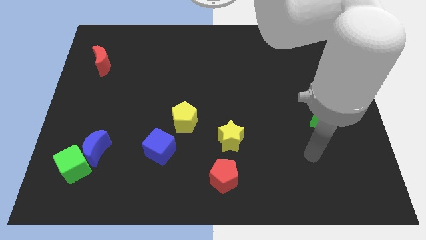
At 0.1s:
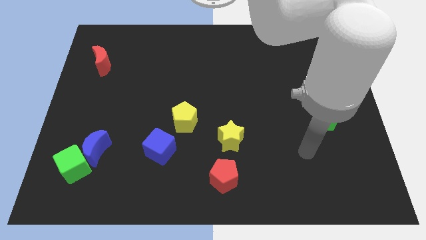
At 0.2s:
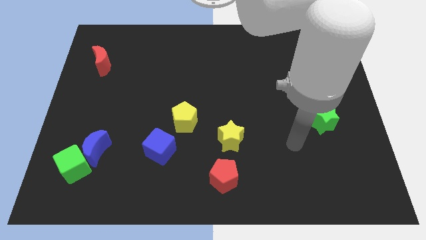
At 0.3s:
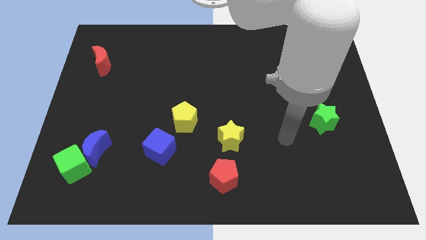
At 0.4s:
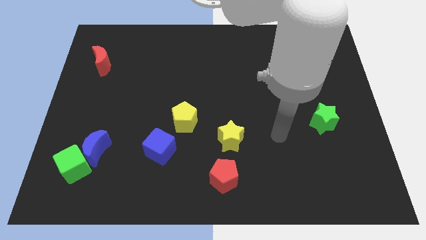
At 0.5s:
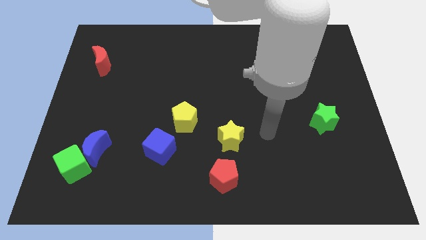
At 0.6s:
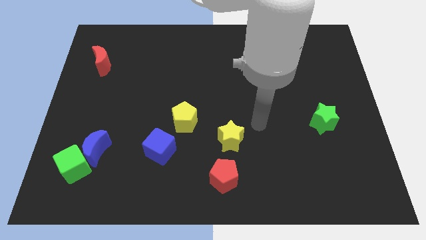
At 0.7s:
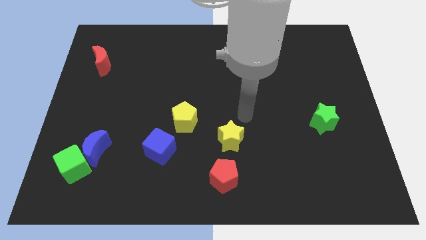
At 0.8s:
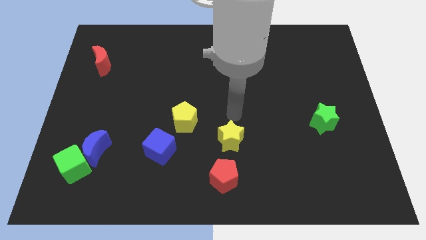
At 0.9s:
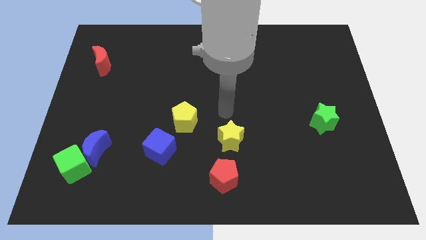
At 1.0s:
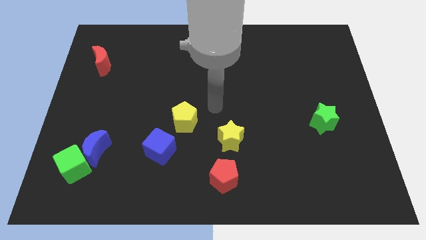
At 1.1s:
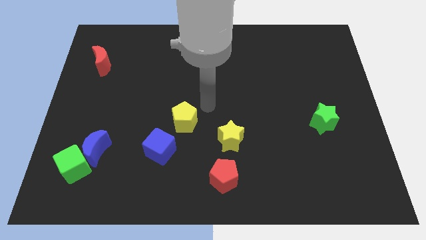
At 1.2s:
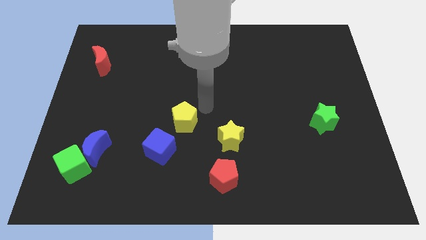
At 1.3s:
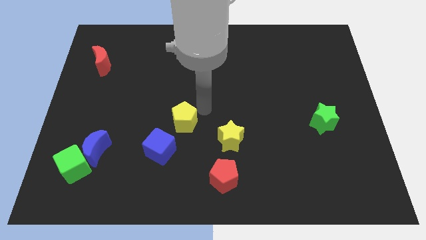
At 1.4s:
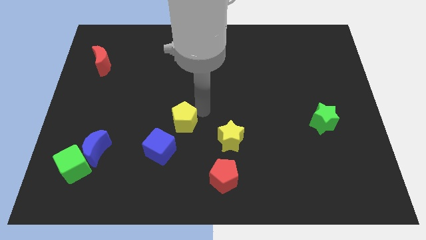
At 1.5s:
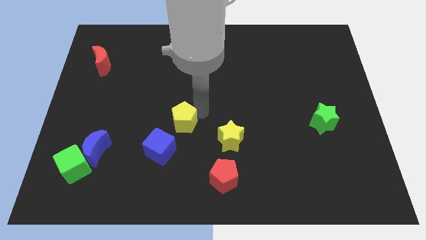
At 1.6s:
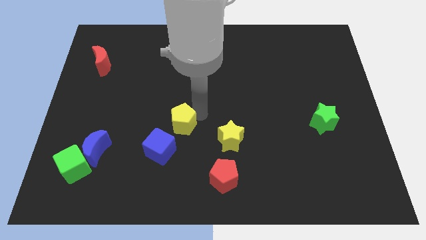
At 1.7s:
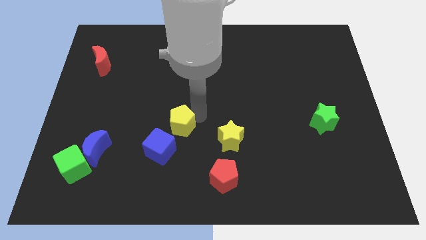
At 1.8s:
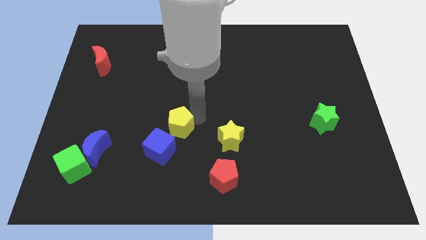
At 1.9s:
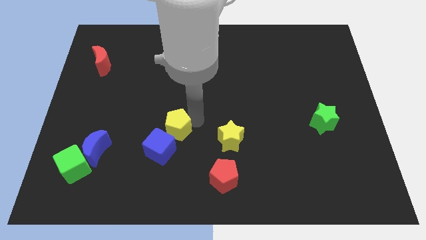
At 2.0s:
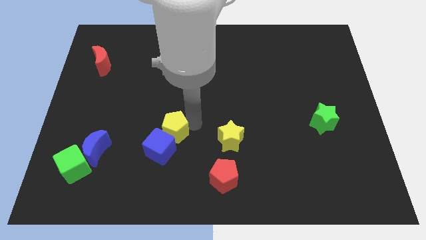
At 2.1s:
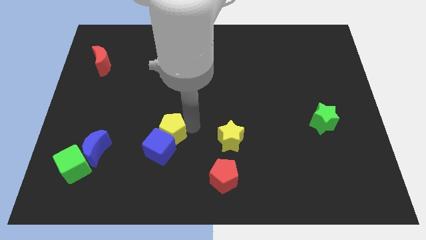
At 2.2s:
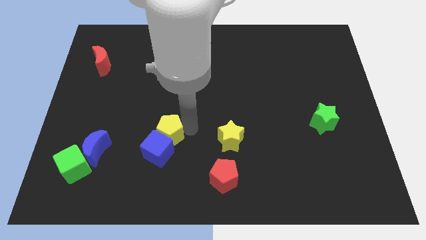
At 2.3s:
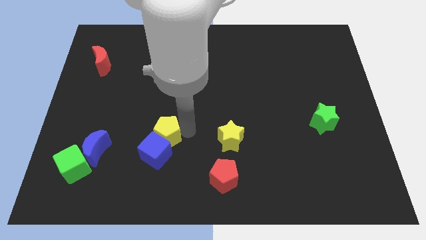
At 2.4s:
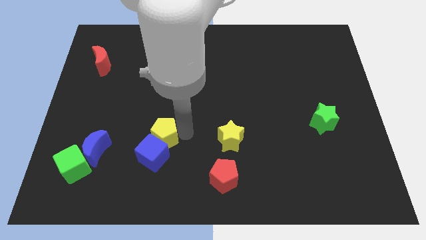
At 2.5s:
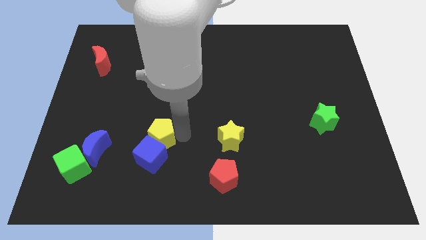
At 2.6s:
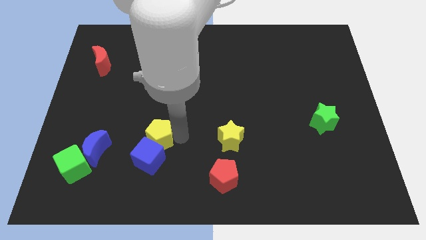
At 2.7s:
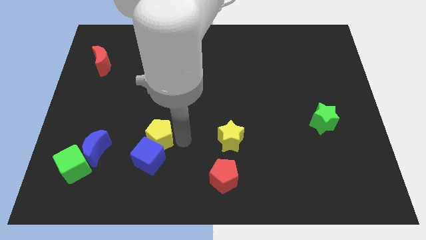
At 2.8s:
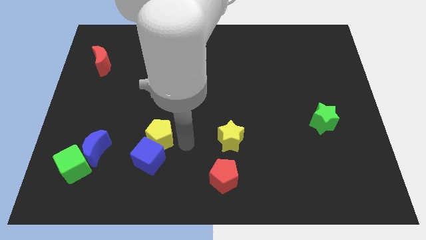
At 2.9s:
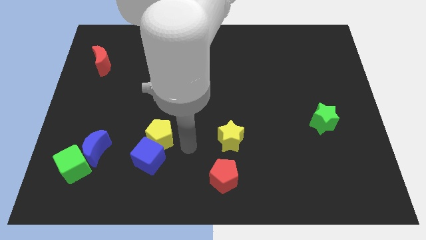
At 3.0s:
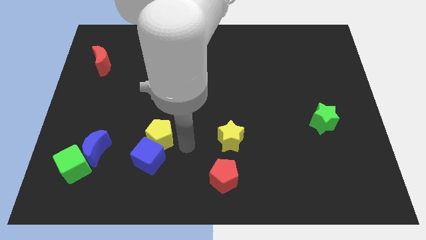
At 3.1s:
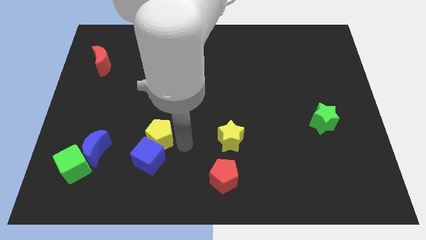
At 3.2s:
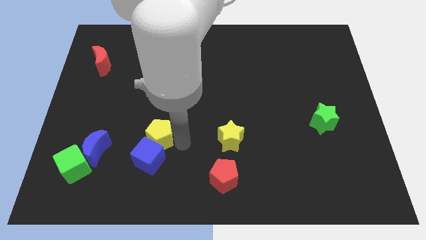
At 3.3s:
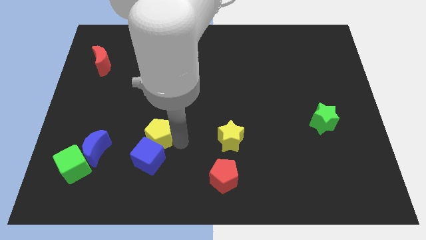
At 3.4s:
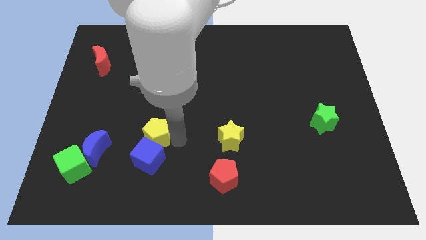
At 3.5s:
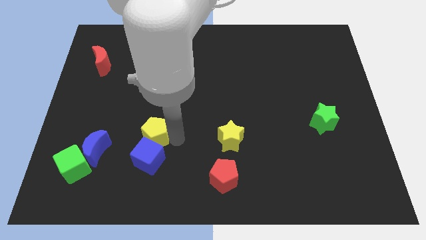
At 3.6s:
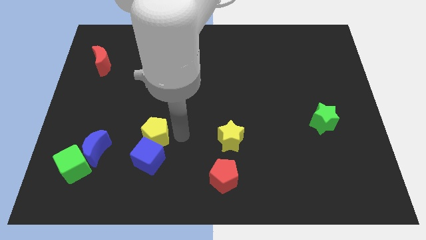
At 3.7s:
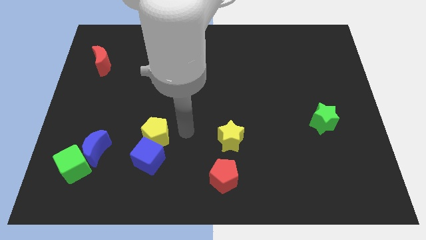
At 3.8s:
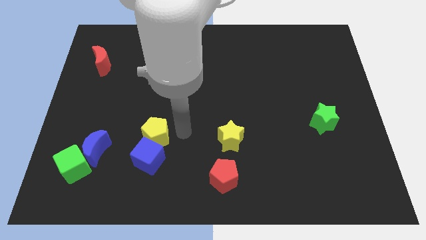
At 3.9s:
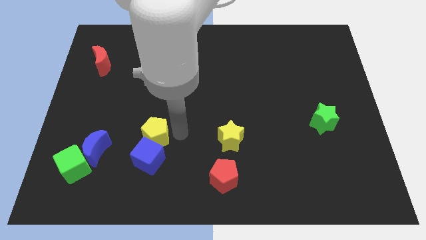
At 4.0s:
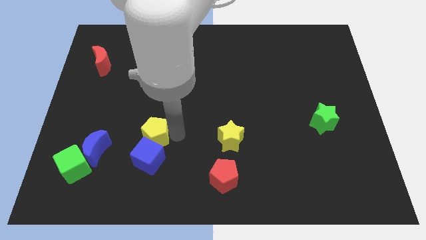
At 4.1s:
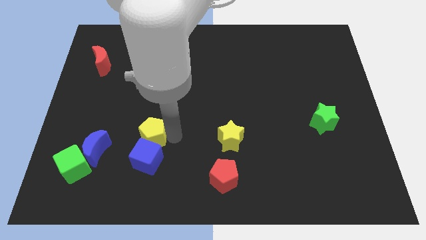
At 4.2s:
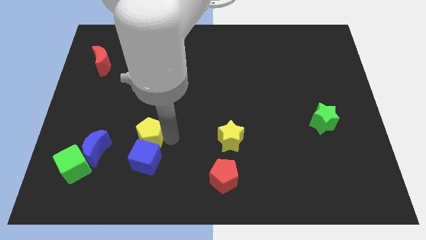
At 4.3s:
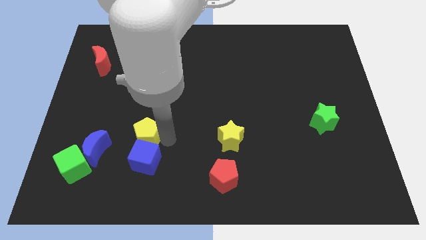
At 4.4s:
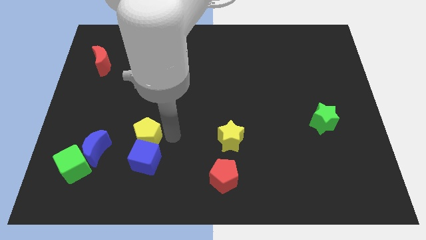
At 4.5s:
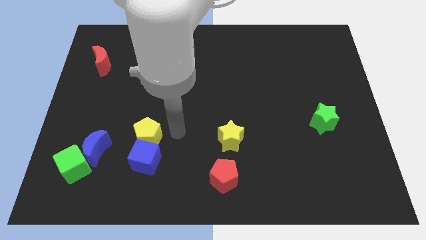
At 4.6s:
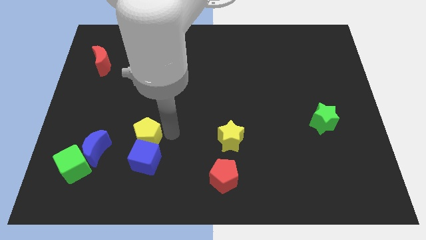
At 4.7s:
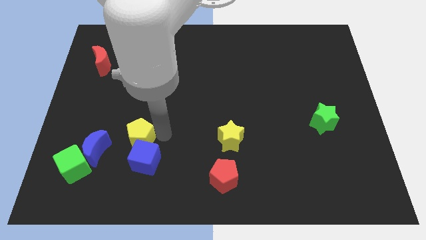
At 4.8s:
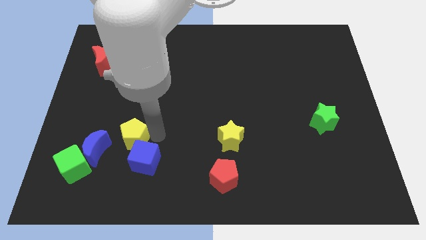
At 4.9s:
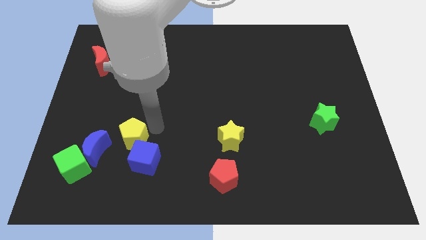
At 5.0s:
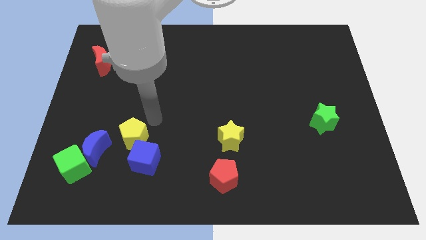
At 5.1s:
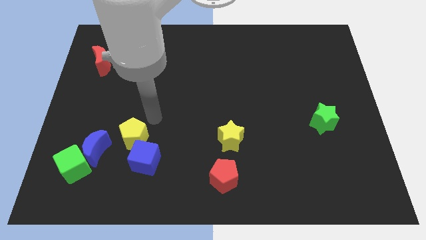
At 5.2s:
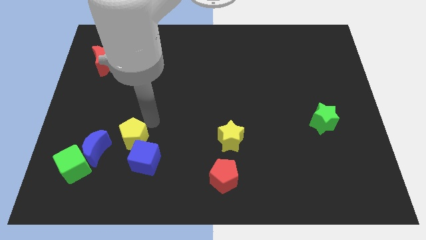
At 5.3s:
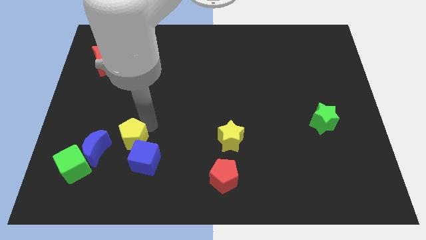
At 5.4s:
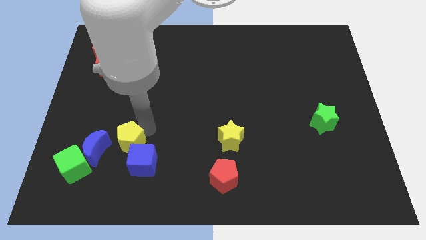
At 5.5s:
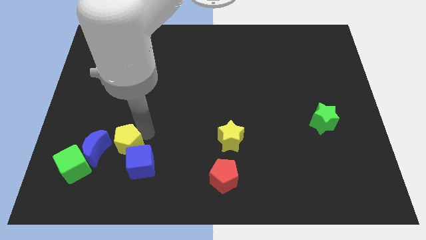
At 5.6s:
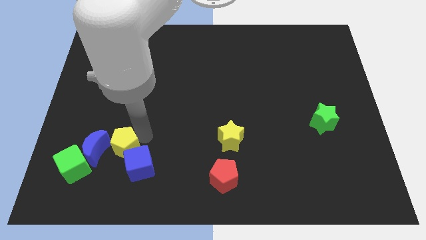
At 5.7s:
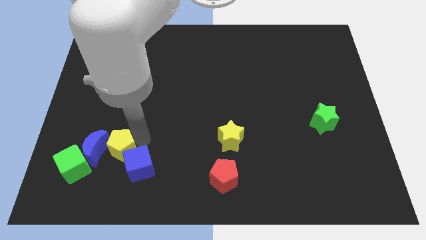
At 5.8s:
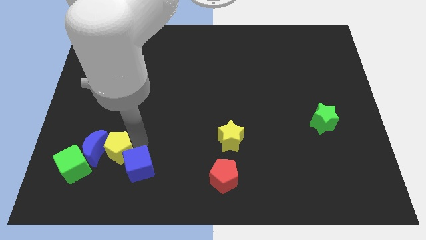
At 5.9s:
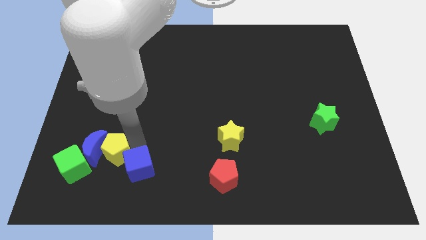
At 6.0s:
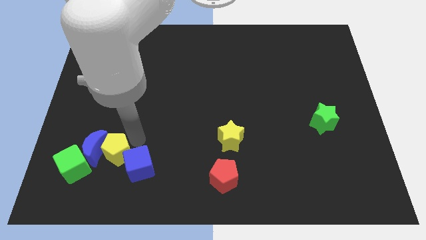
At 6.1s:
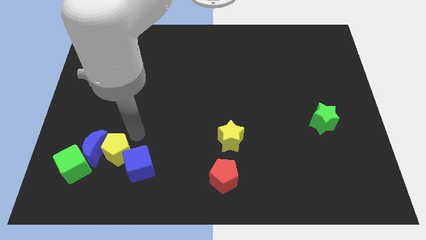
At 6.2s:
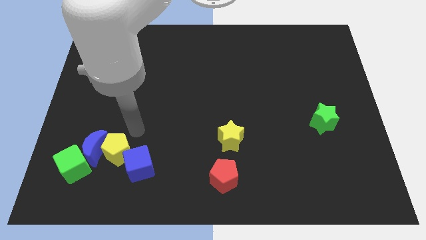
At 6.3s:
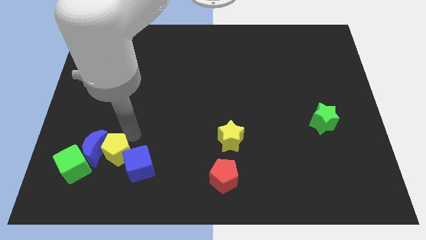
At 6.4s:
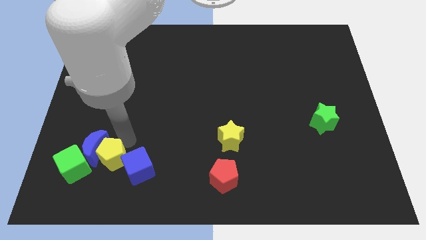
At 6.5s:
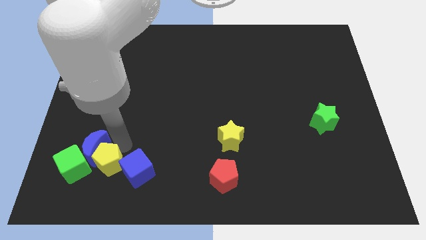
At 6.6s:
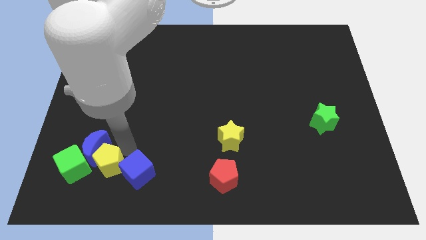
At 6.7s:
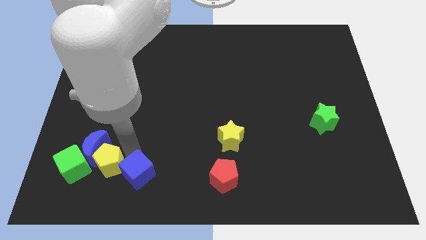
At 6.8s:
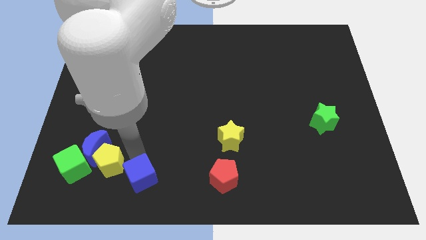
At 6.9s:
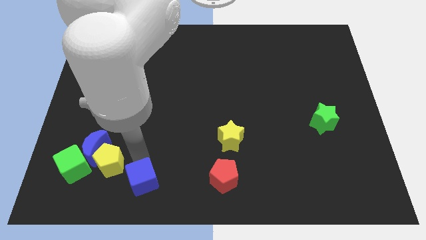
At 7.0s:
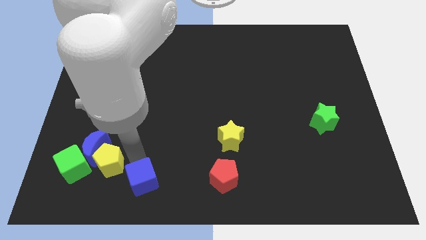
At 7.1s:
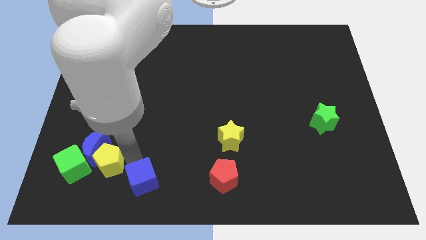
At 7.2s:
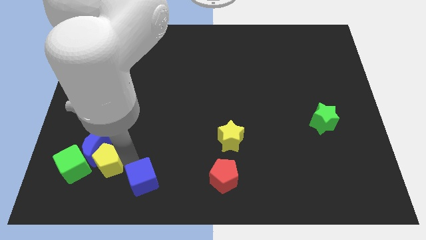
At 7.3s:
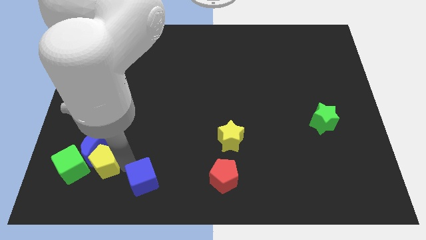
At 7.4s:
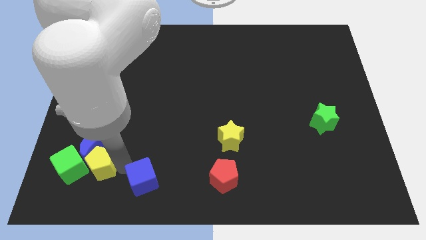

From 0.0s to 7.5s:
push the yellow pentagon close to the green cube

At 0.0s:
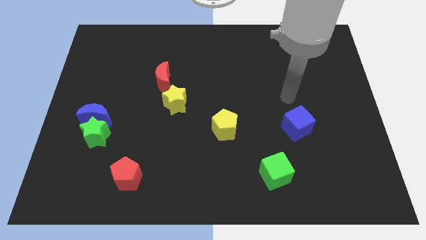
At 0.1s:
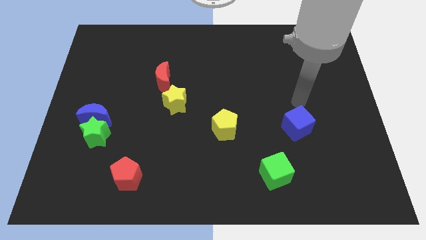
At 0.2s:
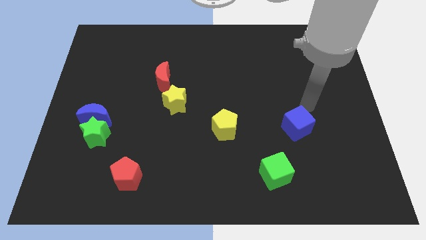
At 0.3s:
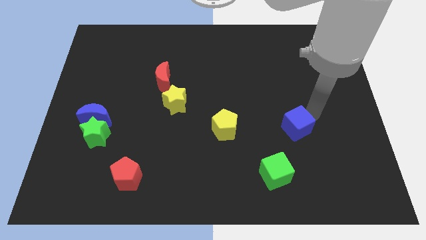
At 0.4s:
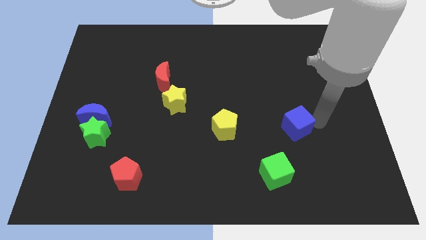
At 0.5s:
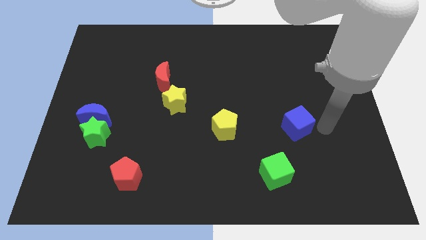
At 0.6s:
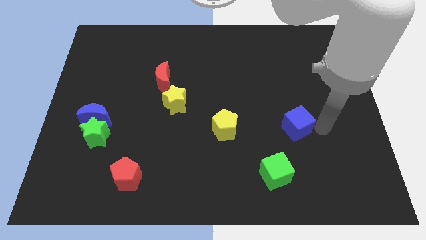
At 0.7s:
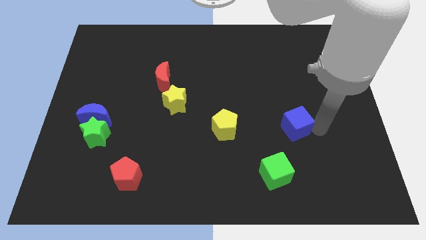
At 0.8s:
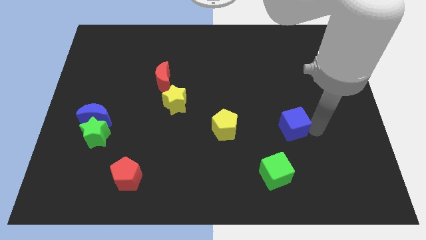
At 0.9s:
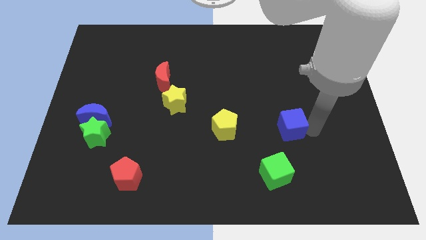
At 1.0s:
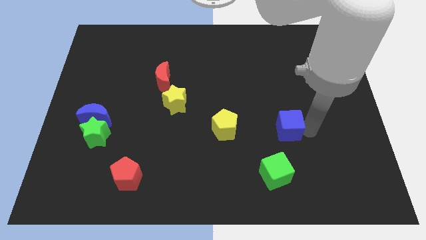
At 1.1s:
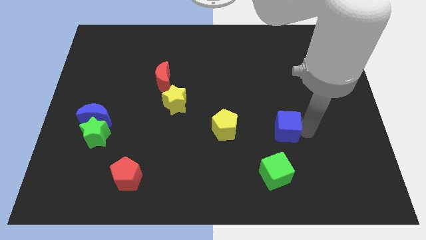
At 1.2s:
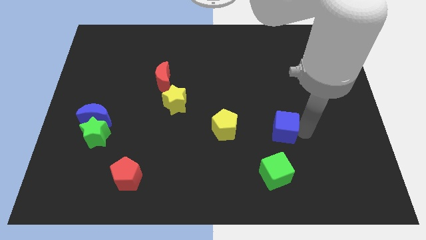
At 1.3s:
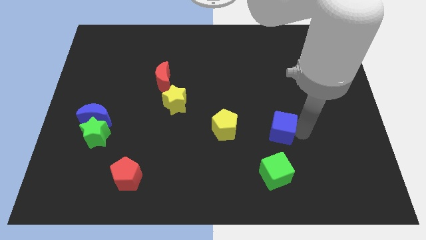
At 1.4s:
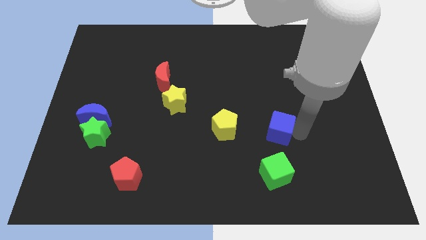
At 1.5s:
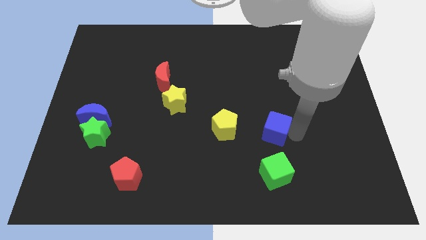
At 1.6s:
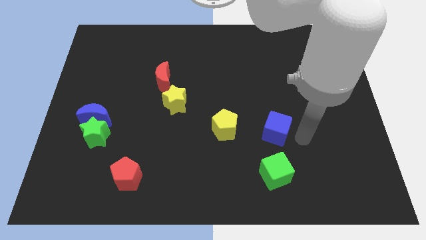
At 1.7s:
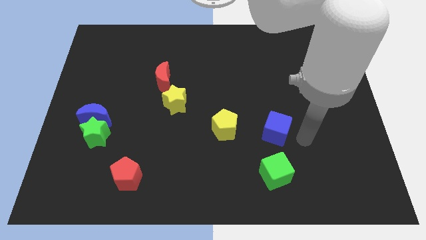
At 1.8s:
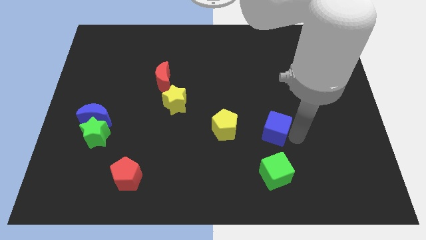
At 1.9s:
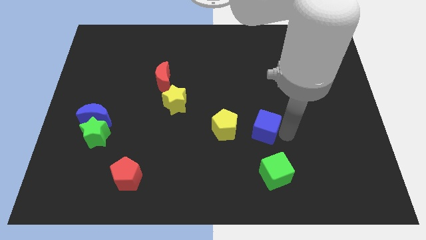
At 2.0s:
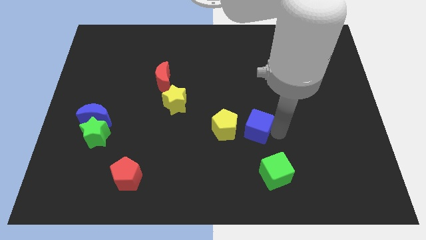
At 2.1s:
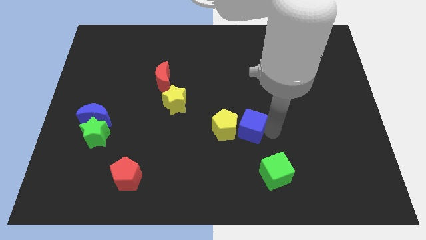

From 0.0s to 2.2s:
put the blue cube to the yellow pentagon
